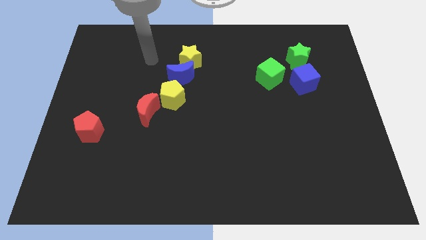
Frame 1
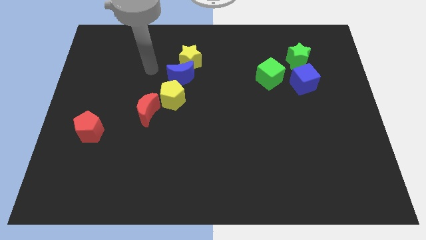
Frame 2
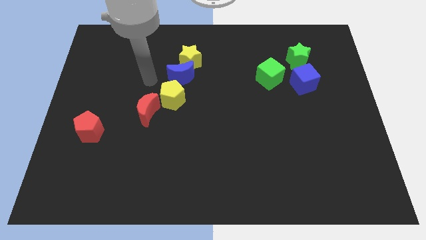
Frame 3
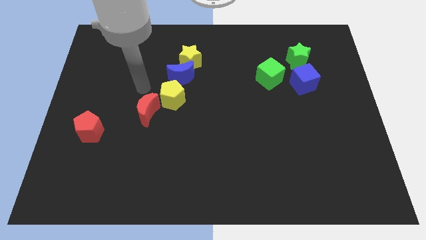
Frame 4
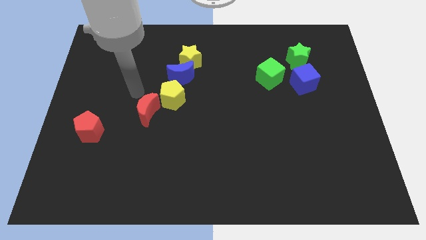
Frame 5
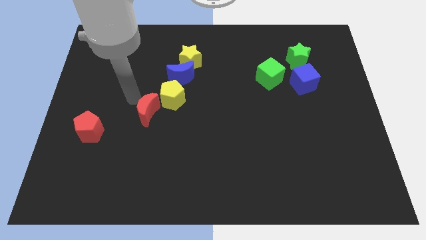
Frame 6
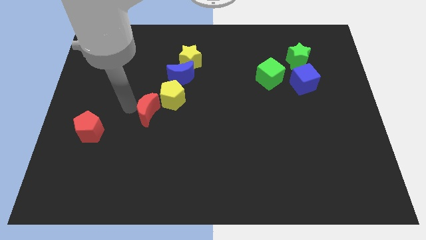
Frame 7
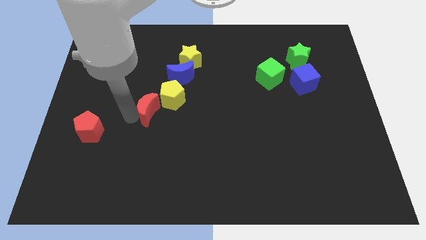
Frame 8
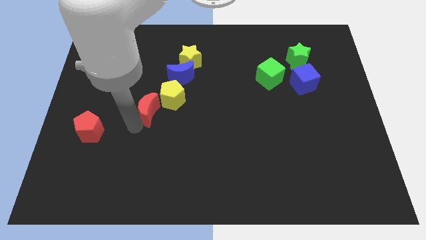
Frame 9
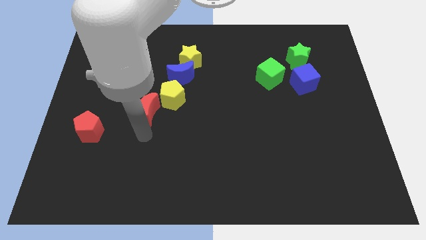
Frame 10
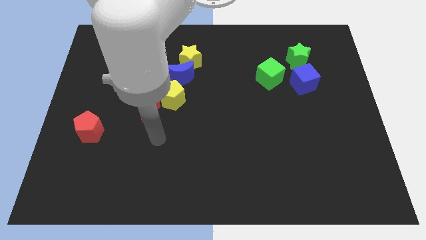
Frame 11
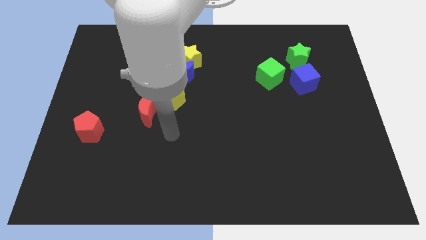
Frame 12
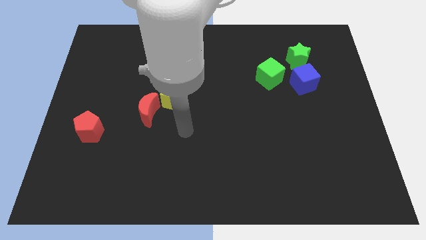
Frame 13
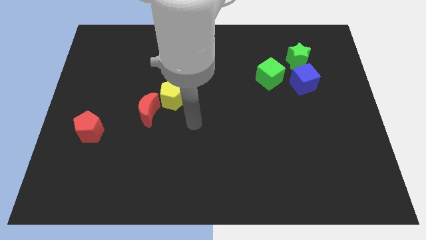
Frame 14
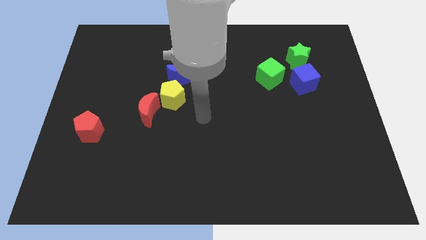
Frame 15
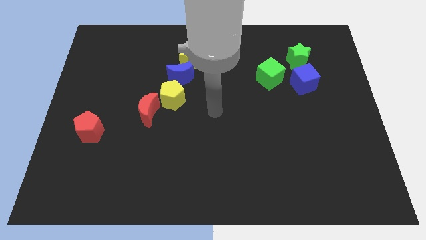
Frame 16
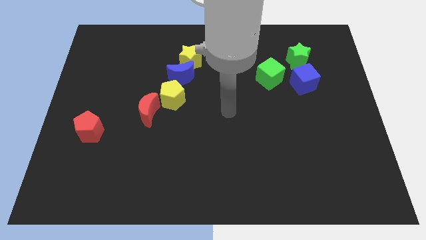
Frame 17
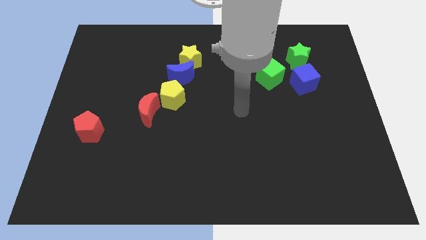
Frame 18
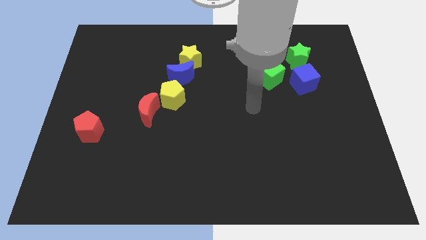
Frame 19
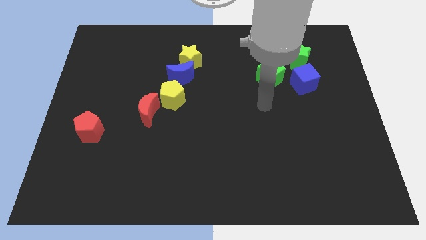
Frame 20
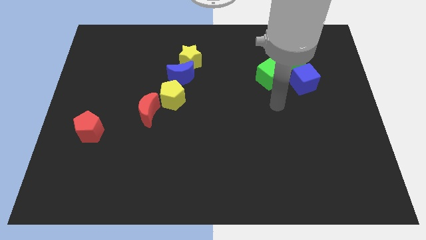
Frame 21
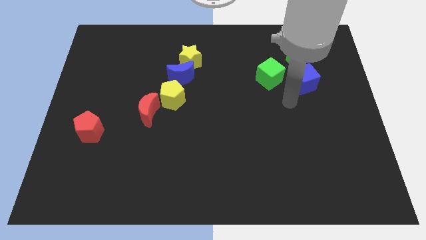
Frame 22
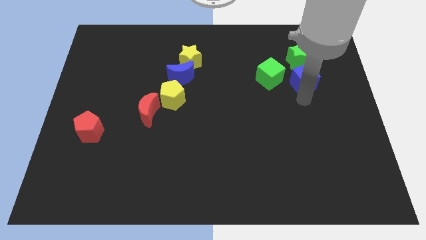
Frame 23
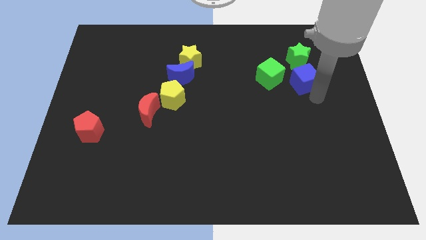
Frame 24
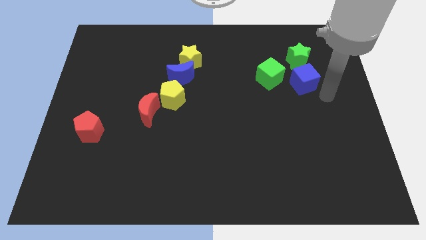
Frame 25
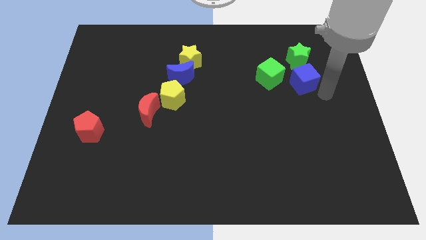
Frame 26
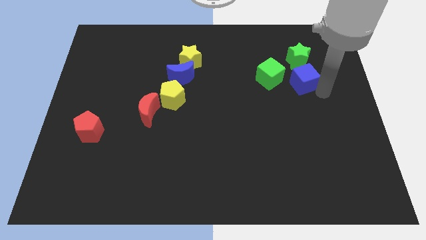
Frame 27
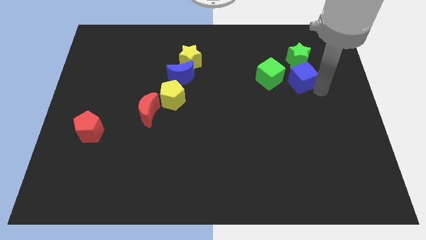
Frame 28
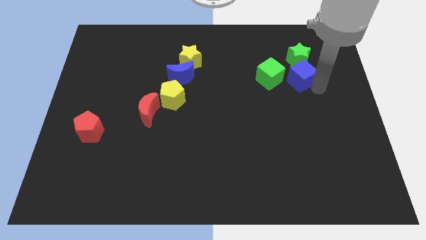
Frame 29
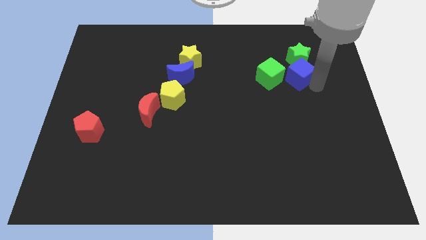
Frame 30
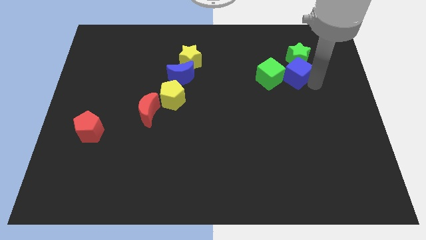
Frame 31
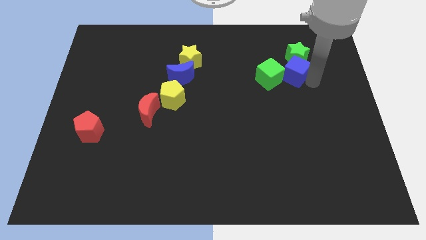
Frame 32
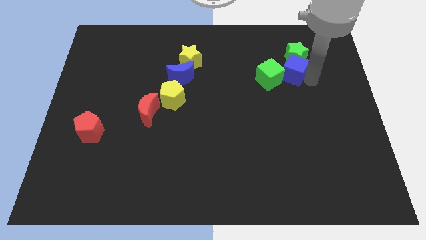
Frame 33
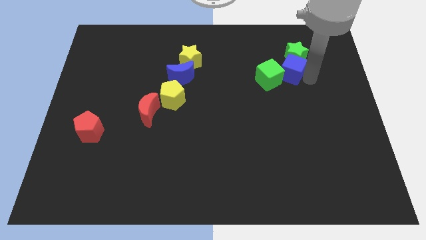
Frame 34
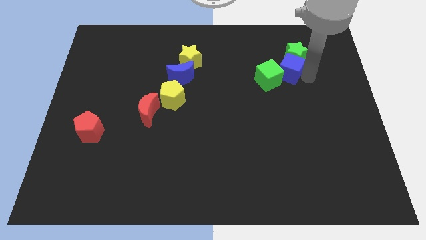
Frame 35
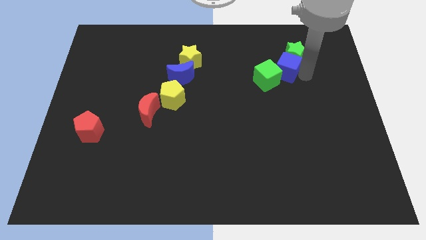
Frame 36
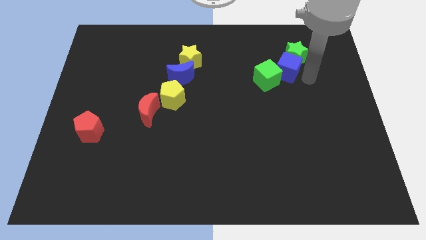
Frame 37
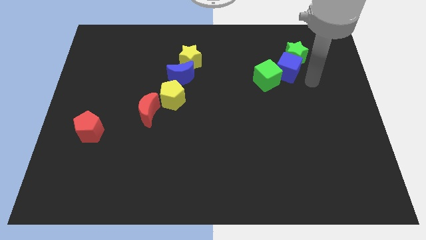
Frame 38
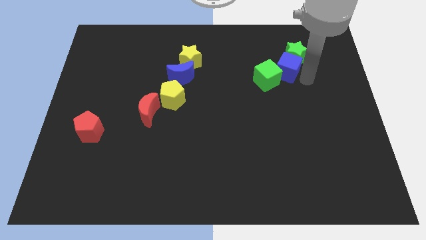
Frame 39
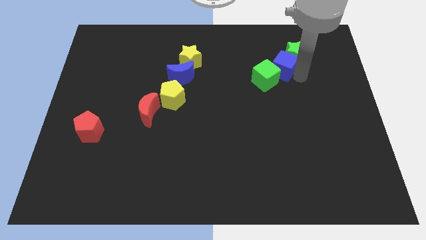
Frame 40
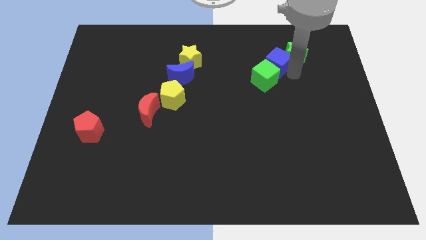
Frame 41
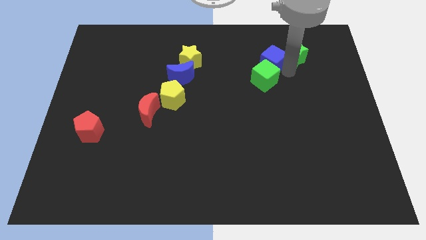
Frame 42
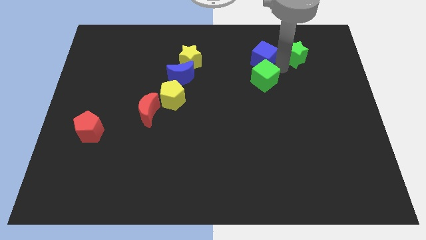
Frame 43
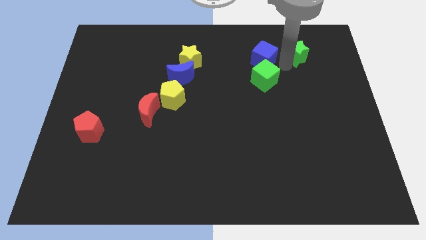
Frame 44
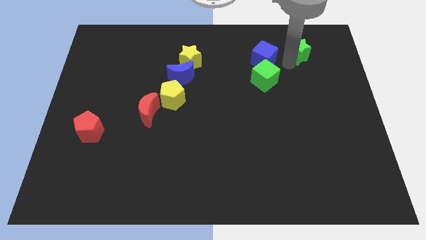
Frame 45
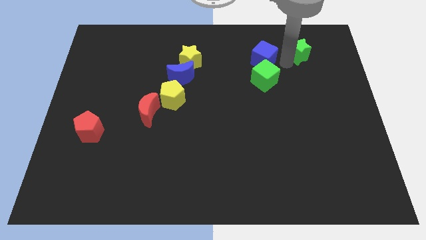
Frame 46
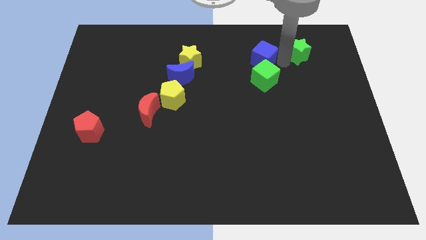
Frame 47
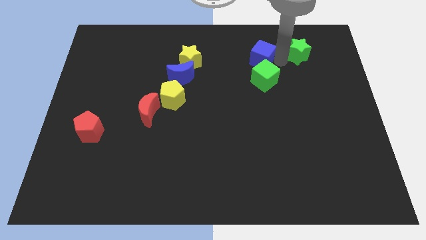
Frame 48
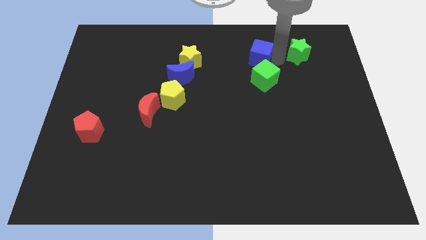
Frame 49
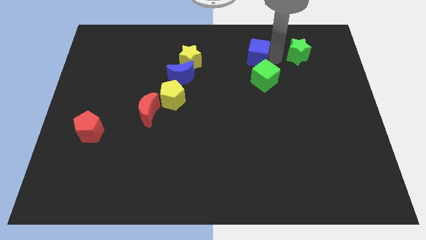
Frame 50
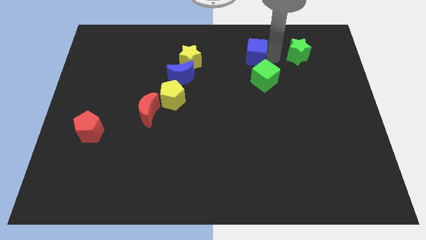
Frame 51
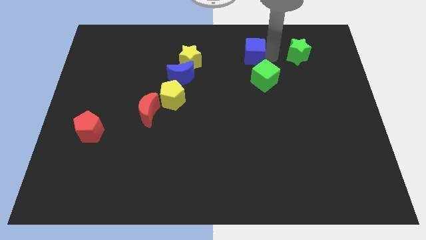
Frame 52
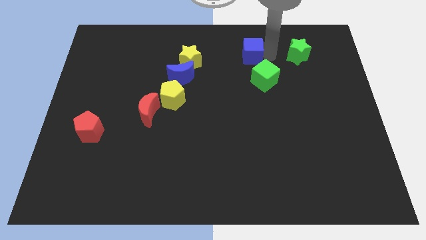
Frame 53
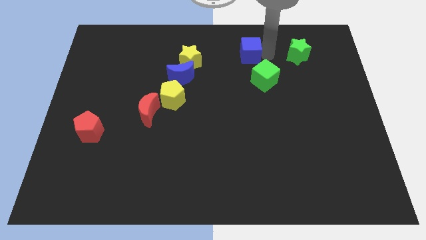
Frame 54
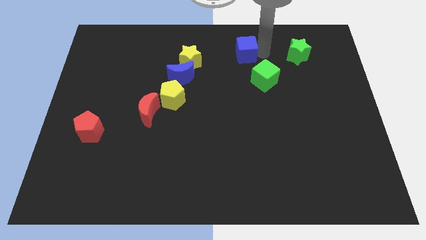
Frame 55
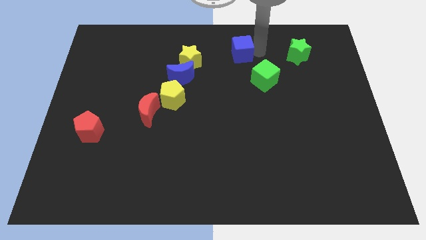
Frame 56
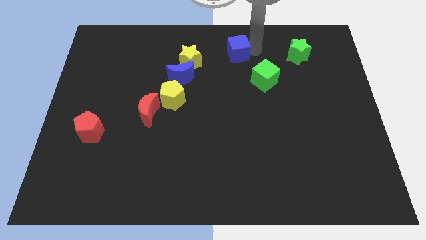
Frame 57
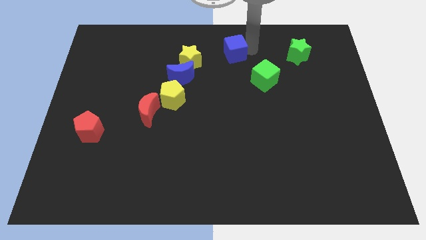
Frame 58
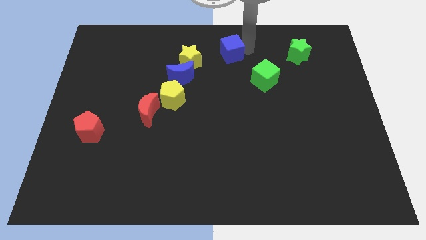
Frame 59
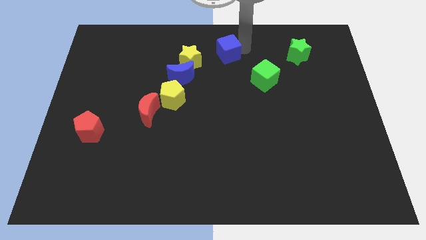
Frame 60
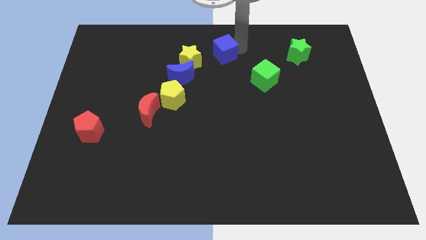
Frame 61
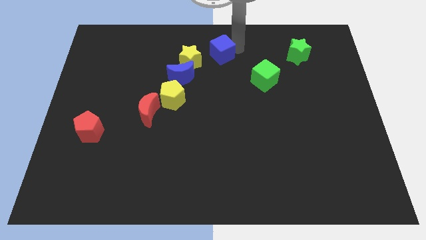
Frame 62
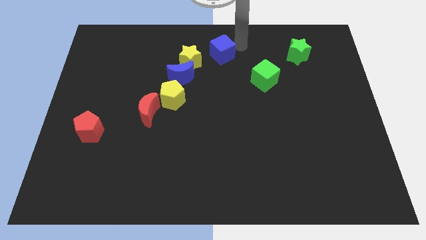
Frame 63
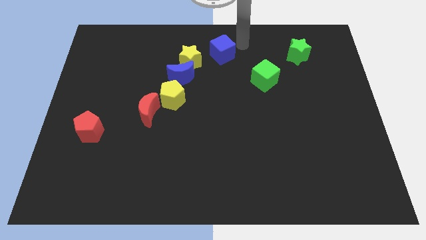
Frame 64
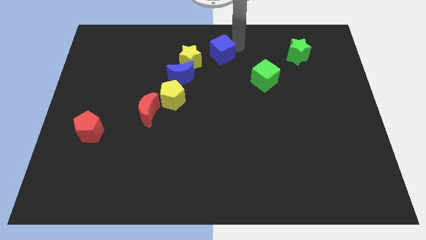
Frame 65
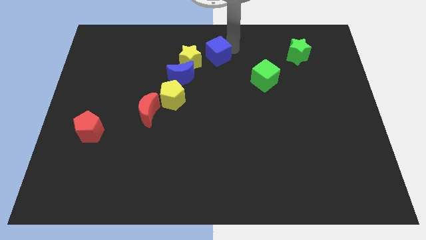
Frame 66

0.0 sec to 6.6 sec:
push the blue cube diagonally up and to the right of the blue moon
